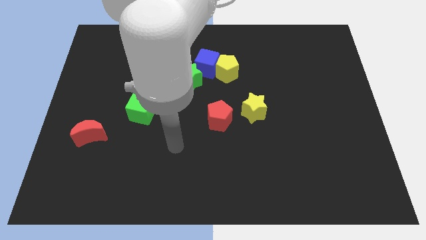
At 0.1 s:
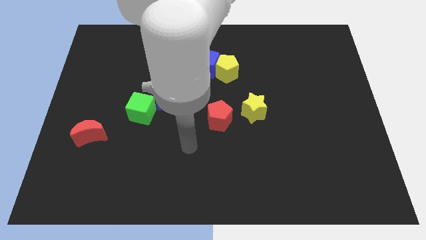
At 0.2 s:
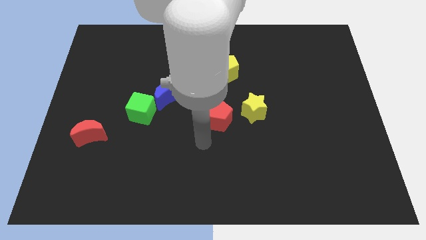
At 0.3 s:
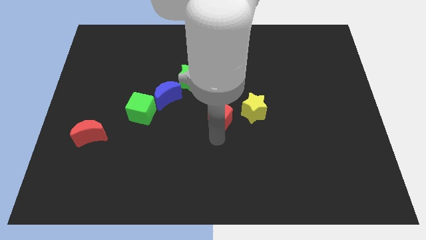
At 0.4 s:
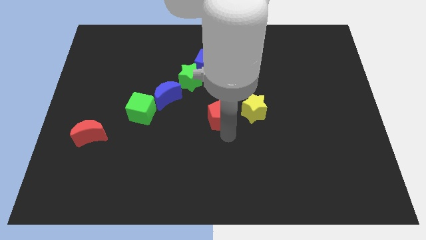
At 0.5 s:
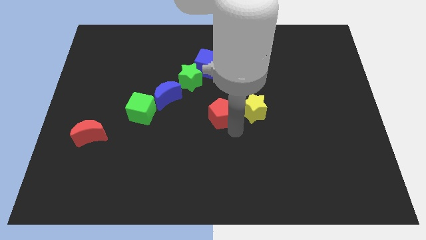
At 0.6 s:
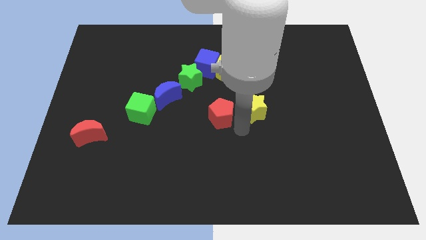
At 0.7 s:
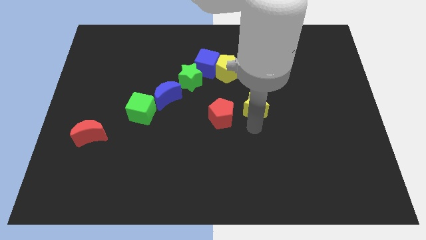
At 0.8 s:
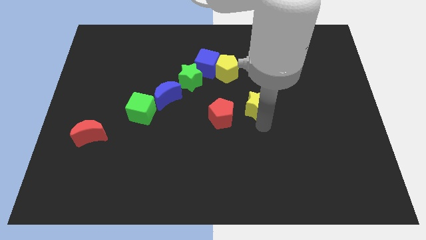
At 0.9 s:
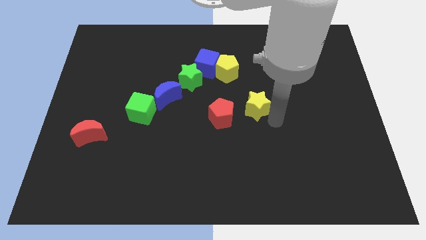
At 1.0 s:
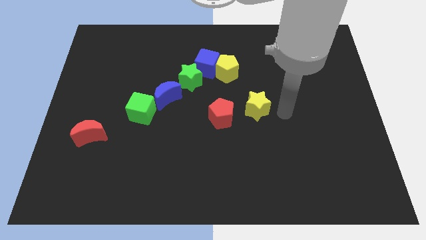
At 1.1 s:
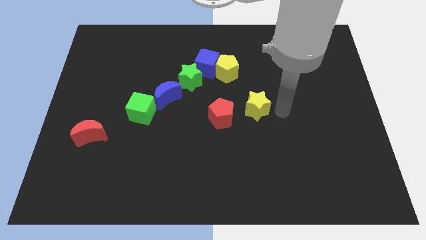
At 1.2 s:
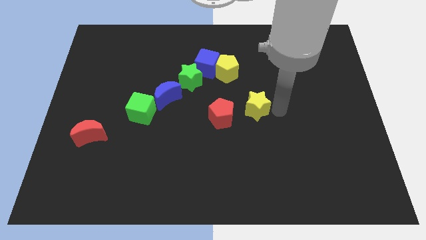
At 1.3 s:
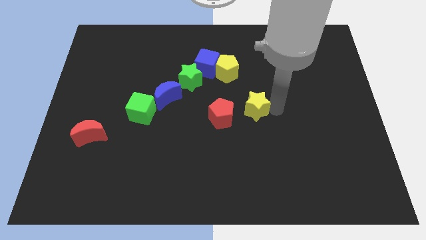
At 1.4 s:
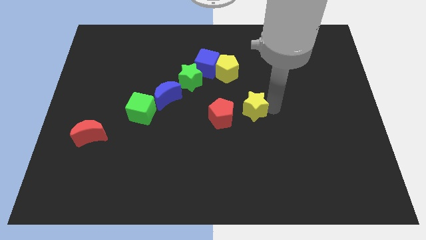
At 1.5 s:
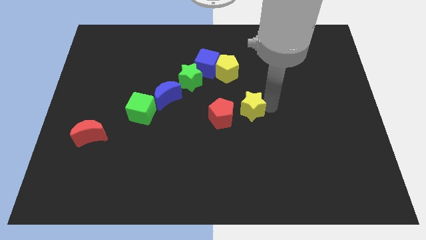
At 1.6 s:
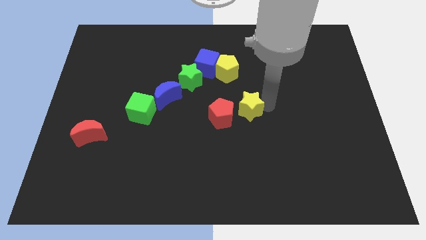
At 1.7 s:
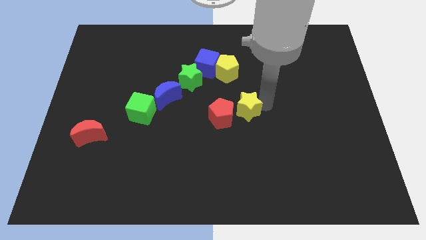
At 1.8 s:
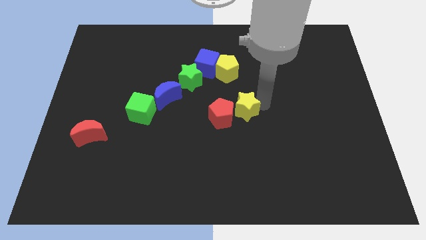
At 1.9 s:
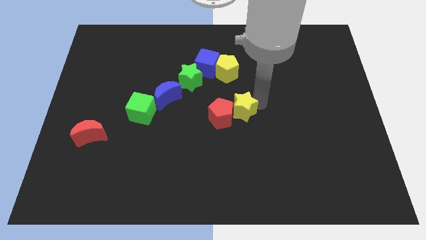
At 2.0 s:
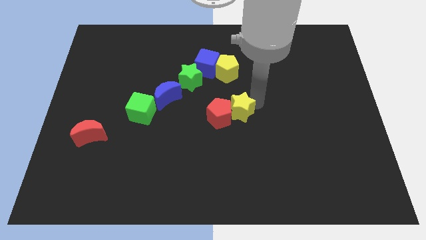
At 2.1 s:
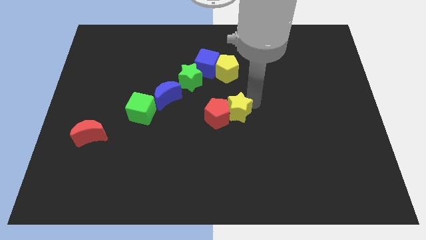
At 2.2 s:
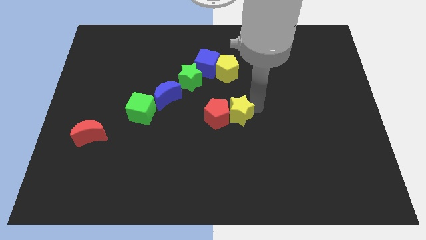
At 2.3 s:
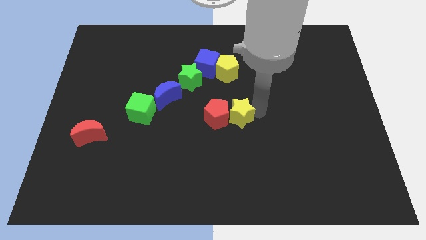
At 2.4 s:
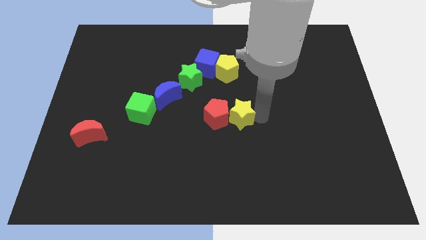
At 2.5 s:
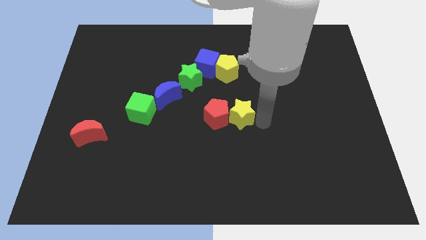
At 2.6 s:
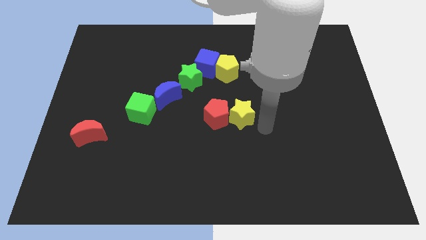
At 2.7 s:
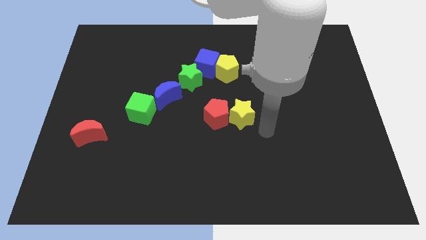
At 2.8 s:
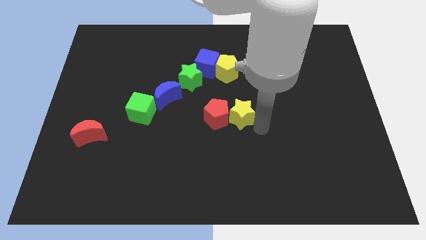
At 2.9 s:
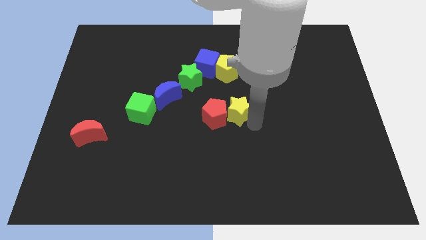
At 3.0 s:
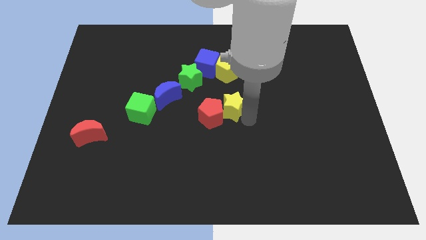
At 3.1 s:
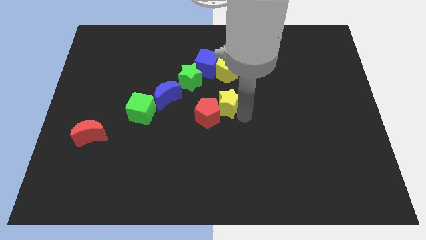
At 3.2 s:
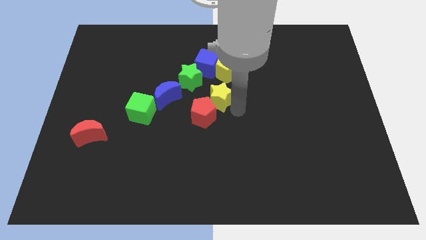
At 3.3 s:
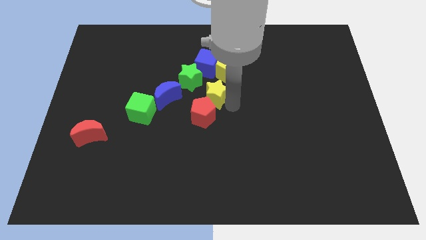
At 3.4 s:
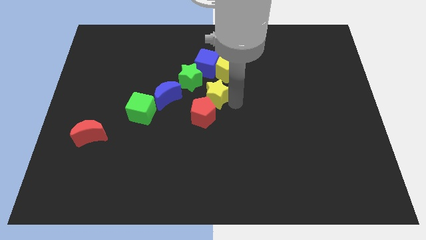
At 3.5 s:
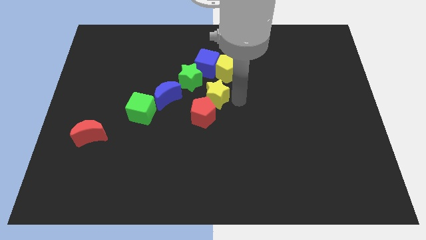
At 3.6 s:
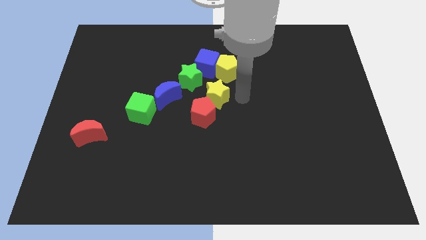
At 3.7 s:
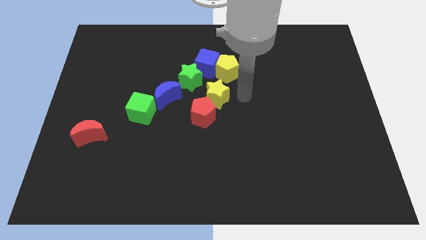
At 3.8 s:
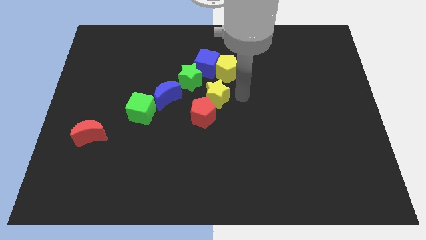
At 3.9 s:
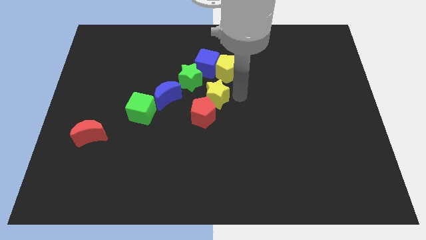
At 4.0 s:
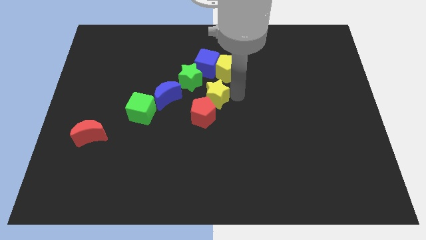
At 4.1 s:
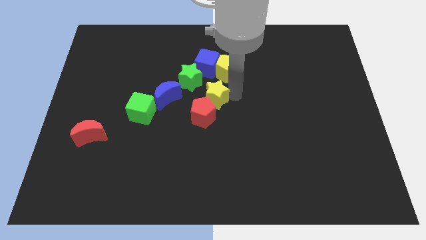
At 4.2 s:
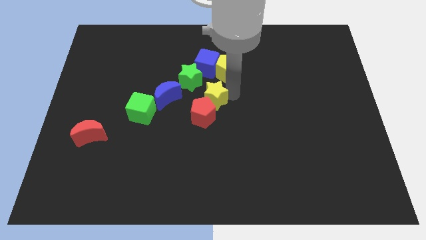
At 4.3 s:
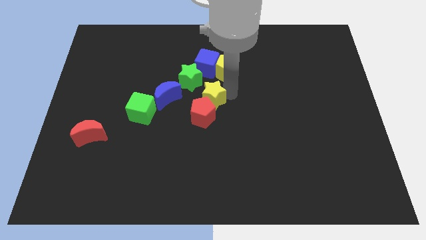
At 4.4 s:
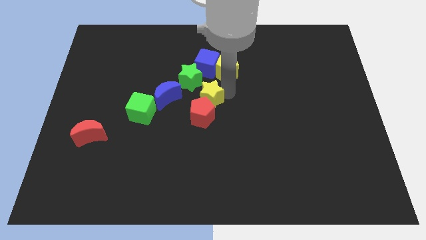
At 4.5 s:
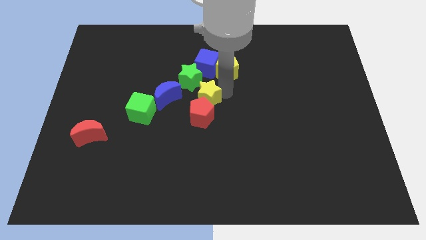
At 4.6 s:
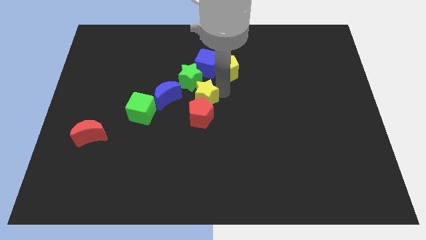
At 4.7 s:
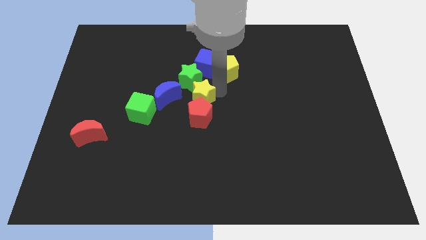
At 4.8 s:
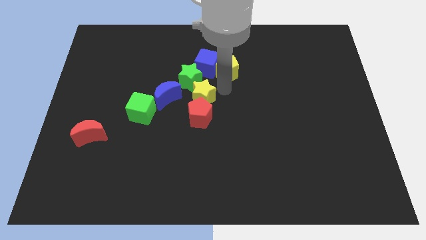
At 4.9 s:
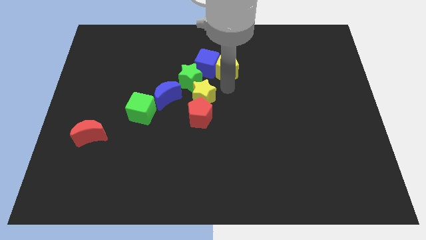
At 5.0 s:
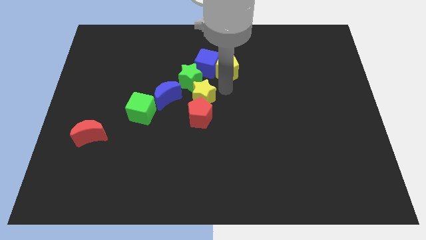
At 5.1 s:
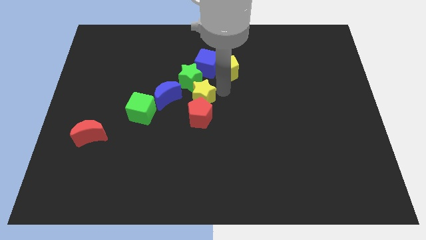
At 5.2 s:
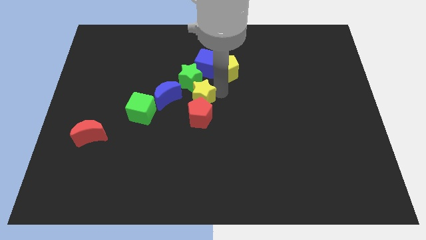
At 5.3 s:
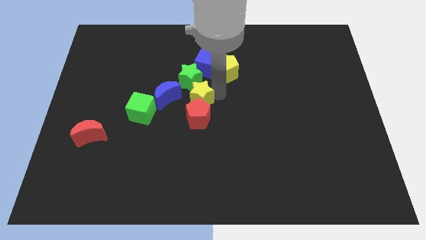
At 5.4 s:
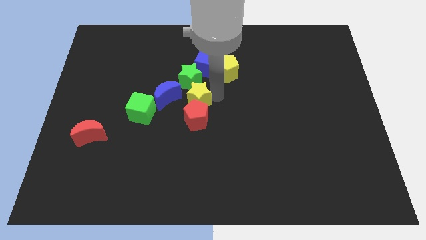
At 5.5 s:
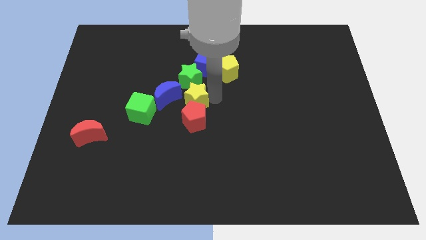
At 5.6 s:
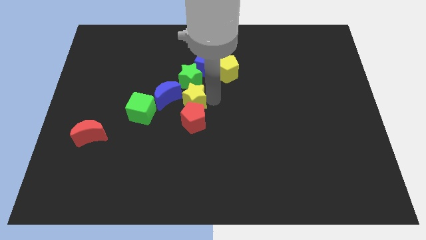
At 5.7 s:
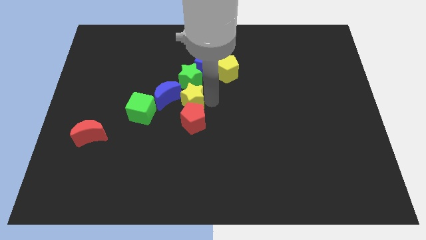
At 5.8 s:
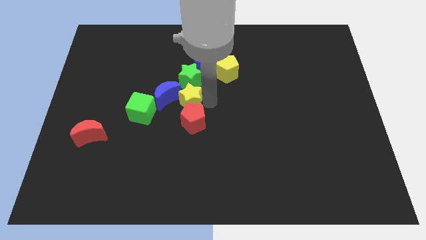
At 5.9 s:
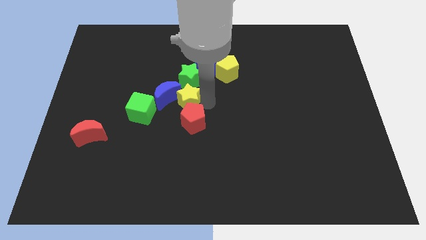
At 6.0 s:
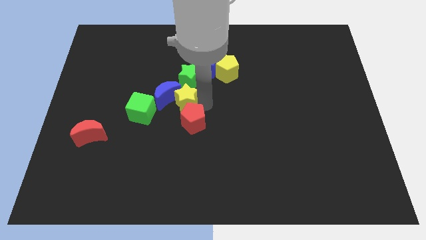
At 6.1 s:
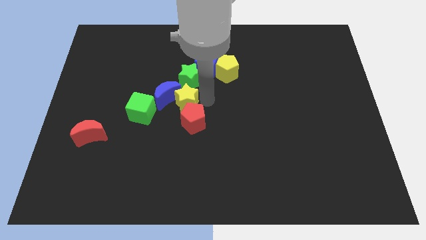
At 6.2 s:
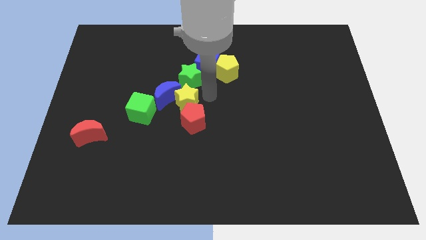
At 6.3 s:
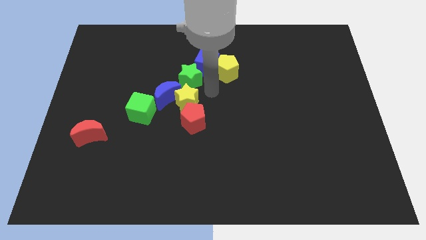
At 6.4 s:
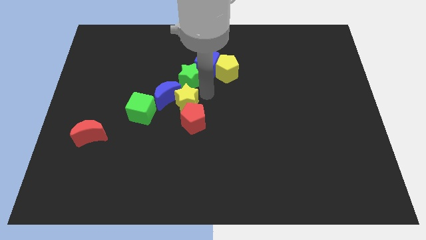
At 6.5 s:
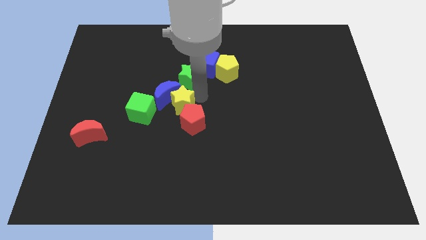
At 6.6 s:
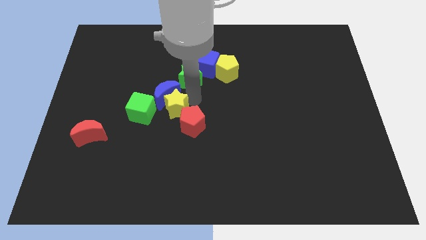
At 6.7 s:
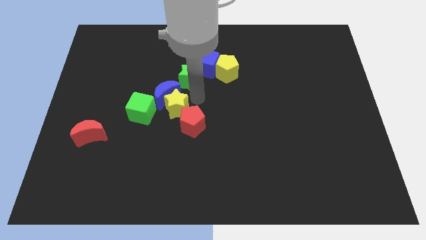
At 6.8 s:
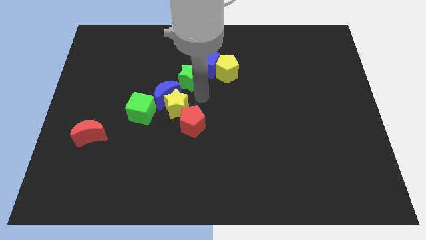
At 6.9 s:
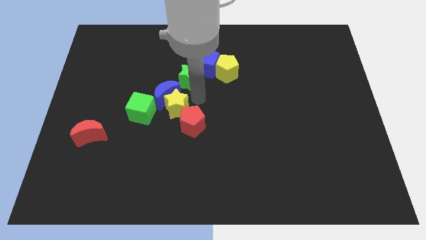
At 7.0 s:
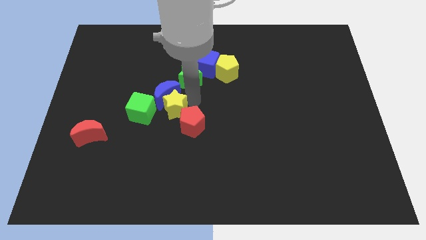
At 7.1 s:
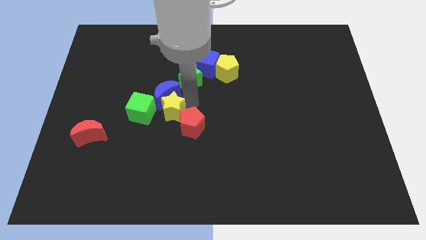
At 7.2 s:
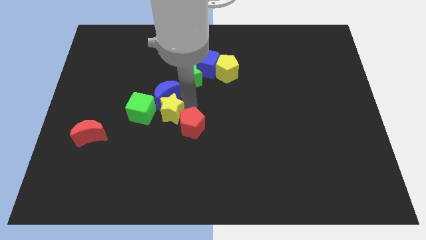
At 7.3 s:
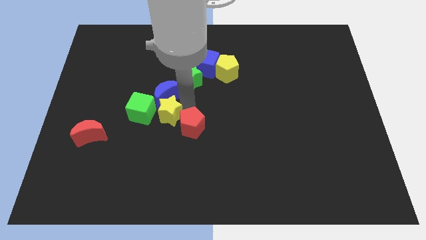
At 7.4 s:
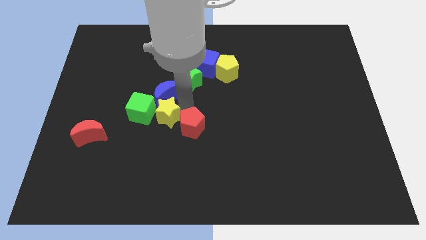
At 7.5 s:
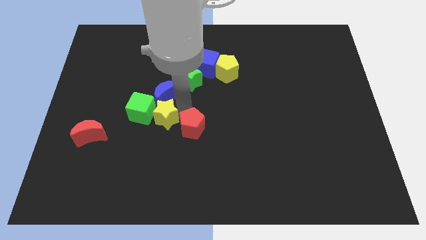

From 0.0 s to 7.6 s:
push the yellow star towards the green cube
